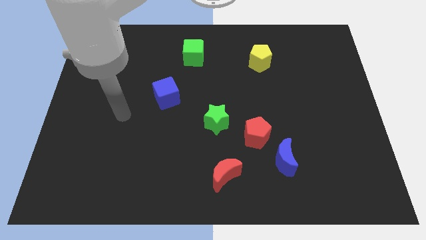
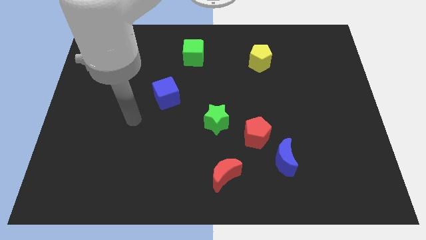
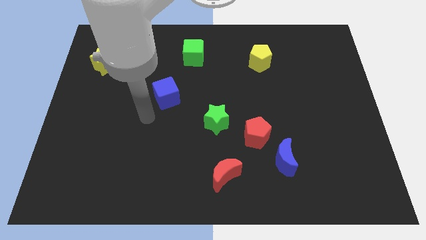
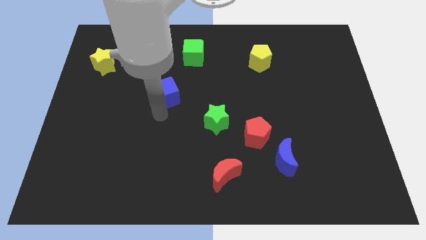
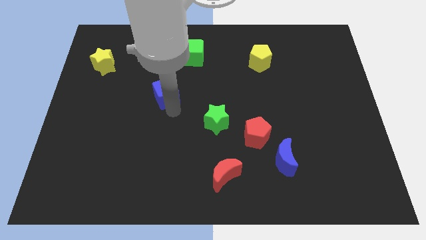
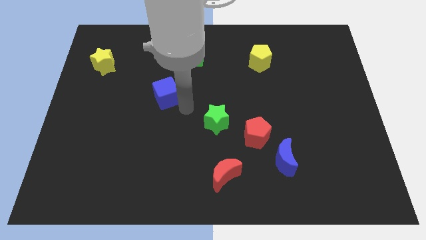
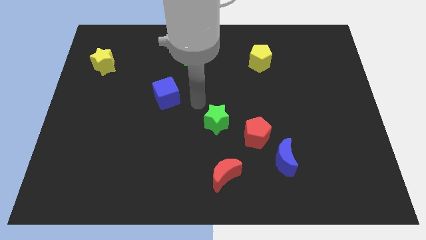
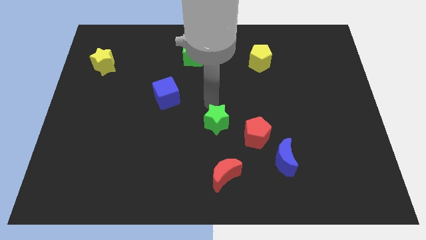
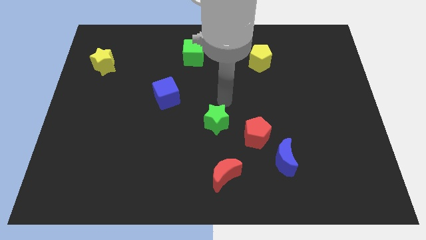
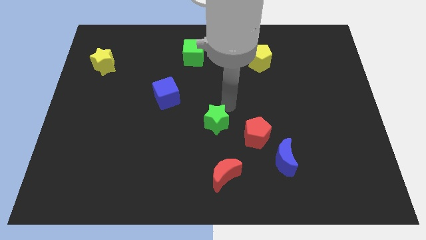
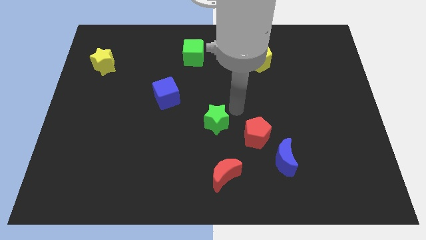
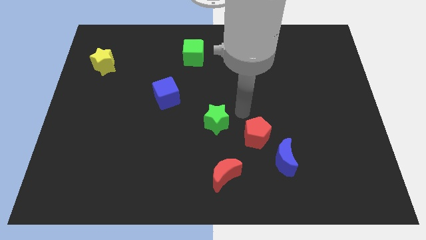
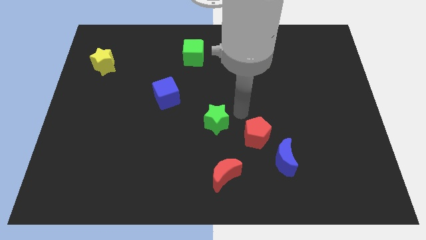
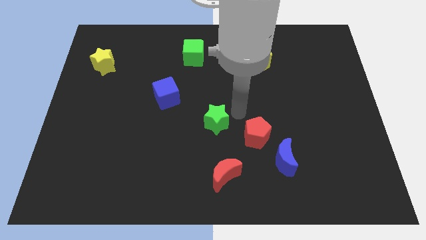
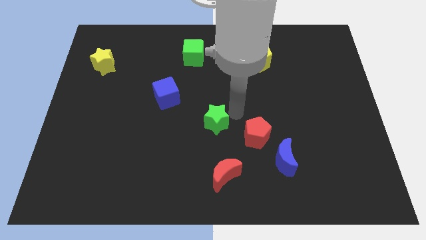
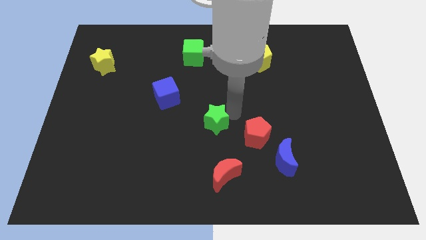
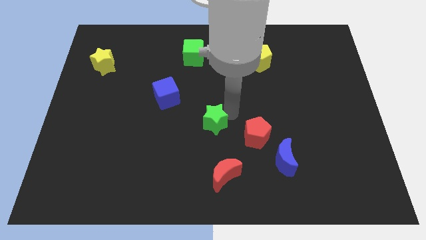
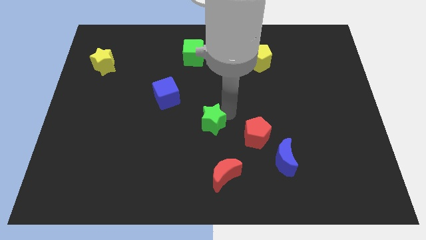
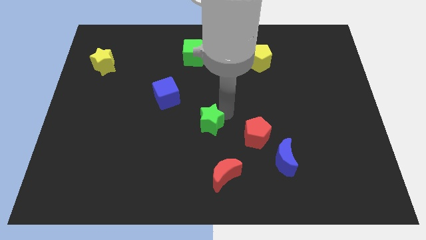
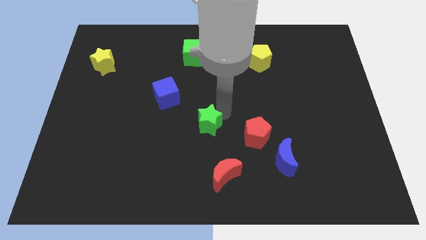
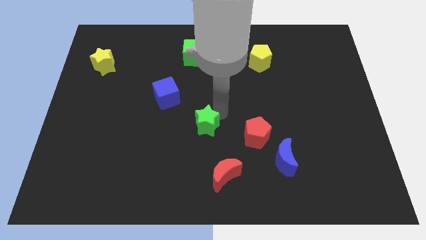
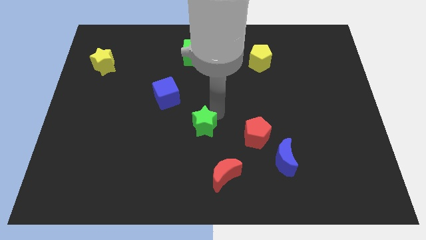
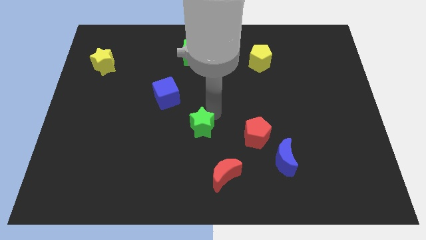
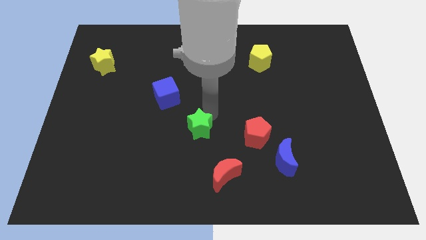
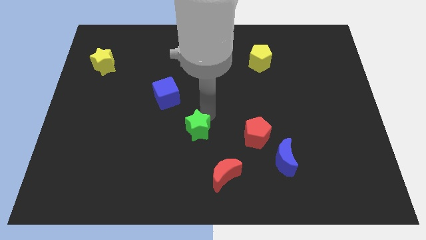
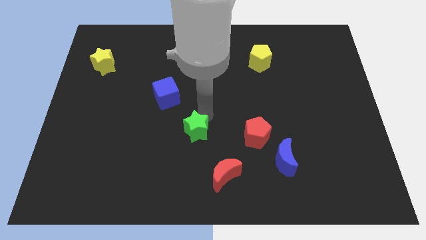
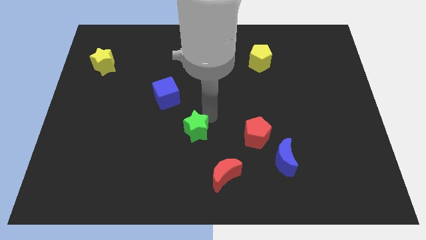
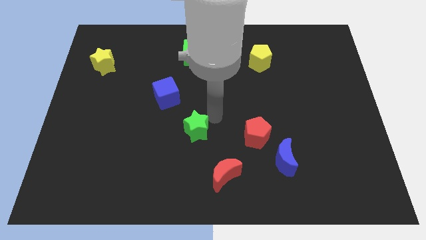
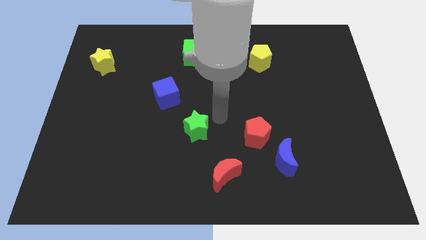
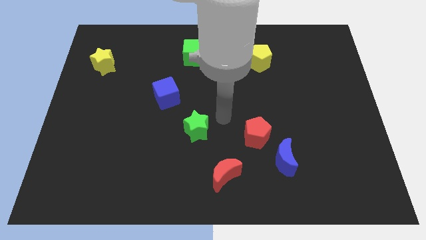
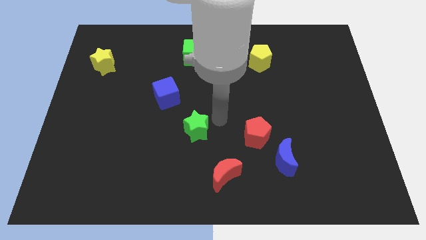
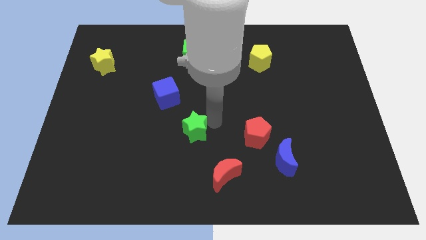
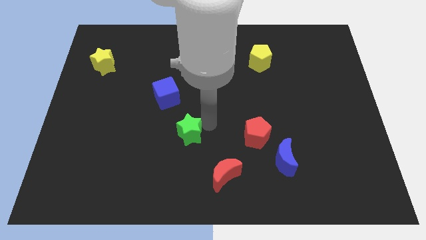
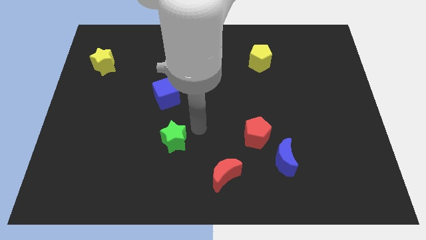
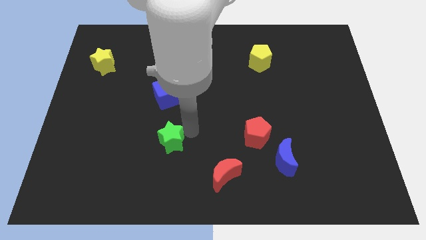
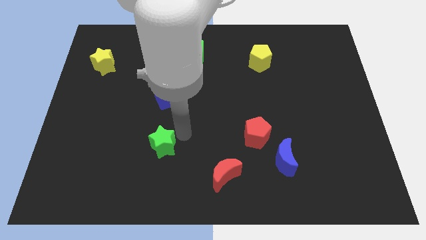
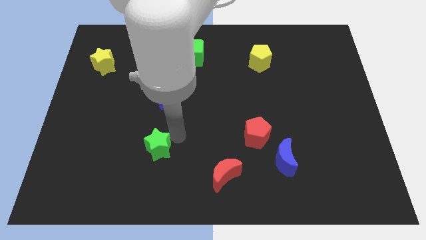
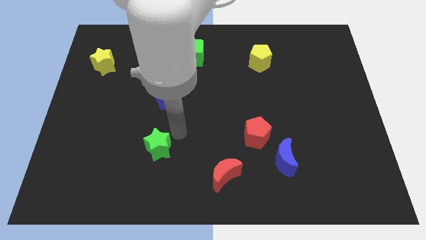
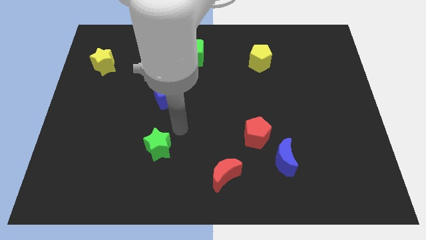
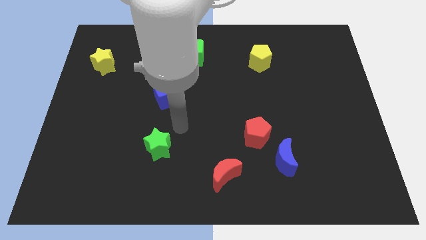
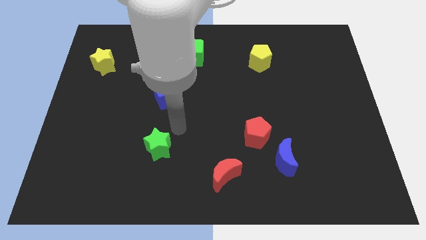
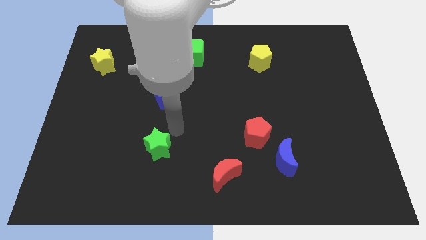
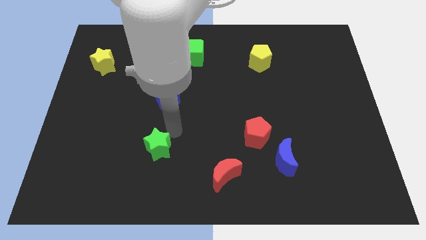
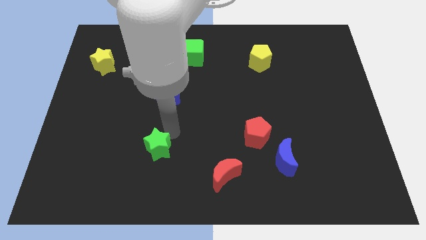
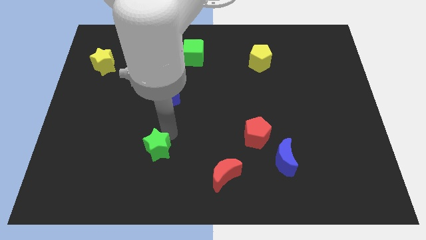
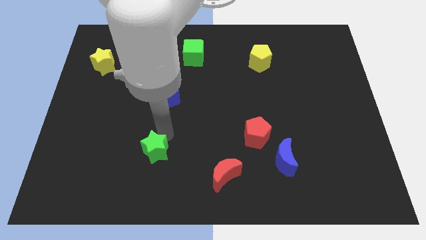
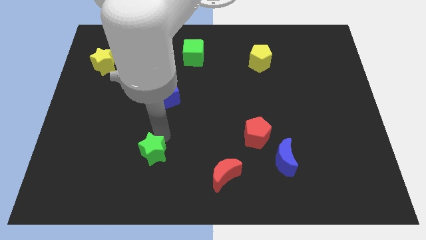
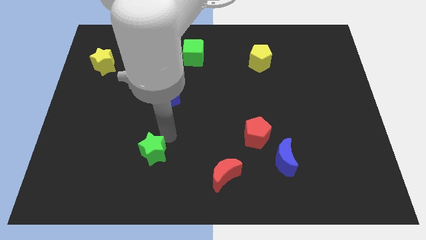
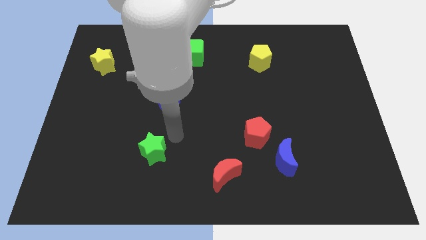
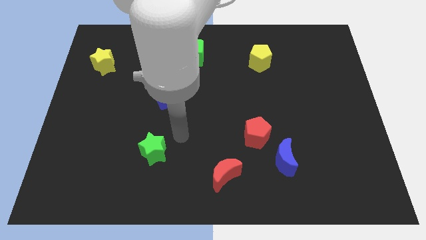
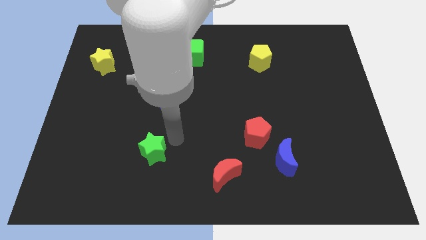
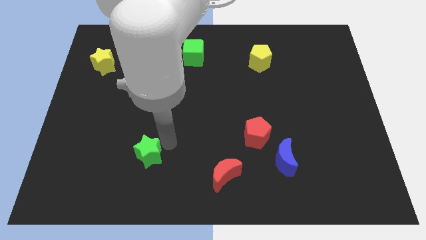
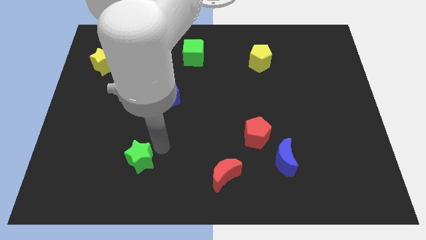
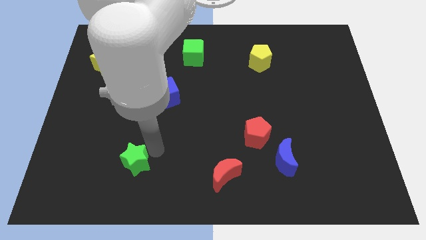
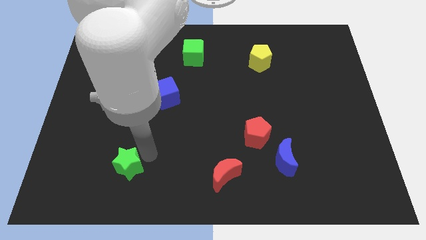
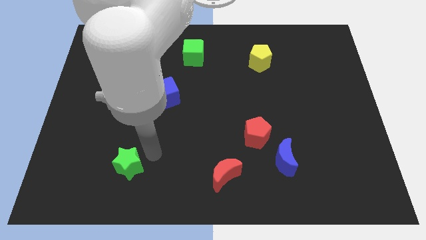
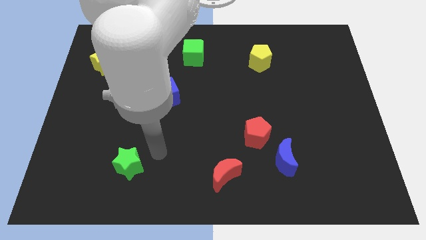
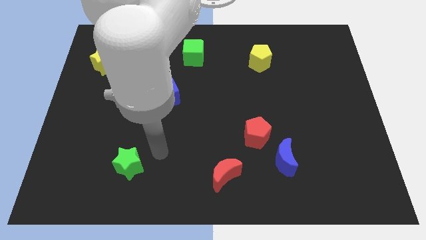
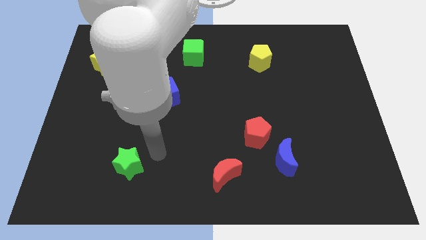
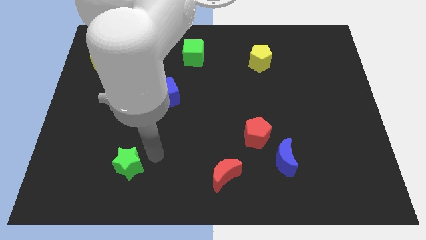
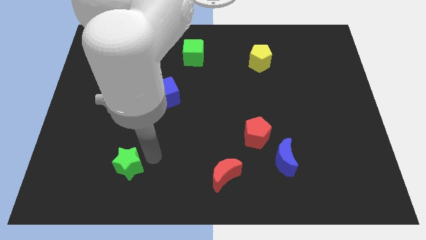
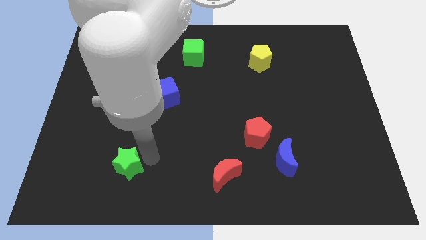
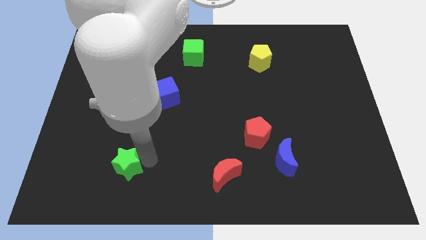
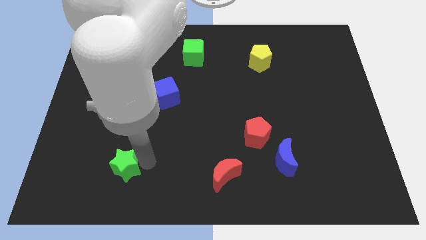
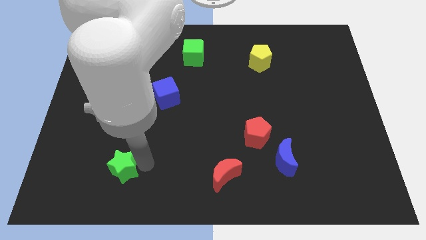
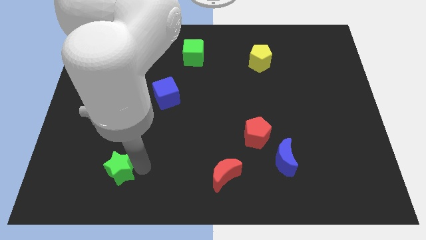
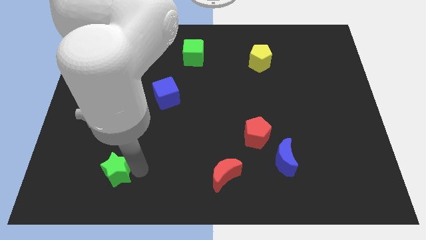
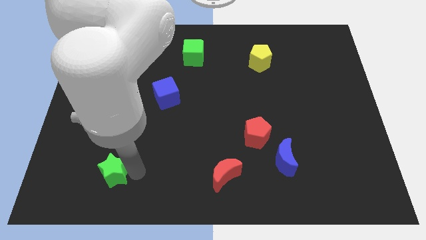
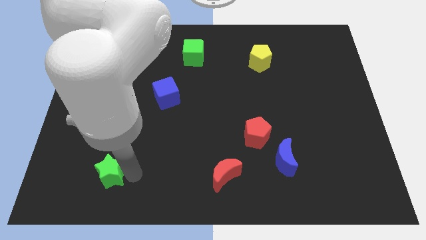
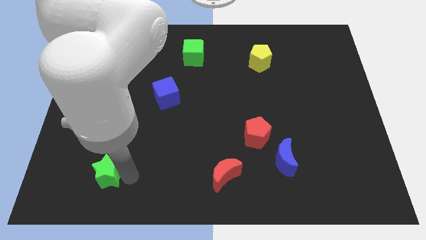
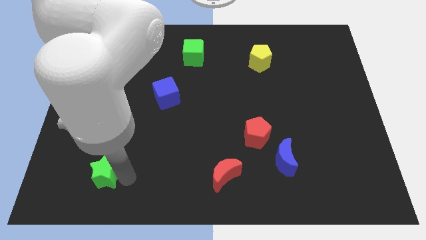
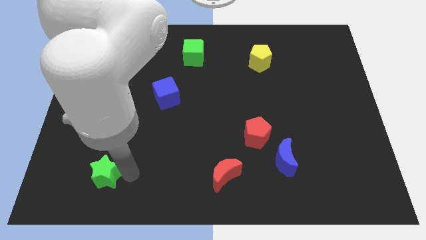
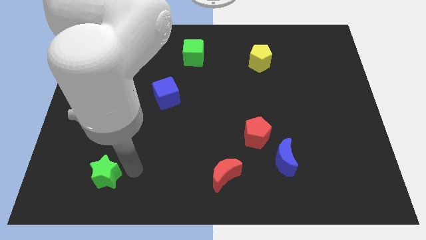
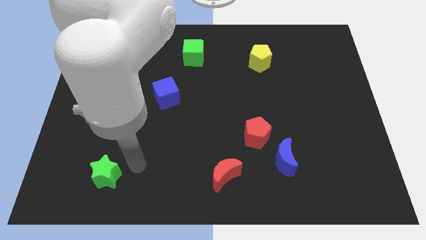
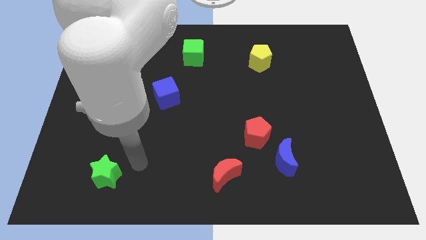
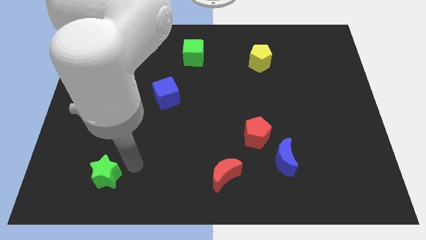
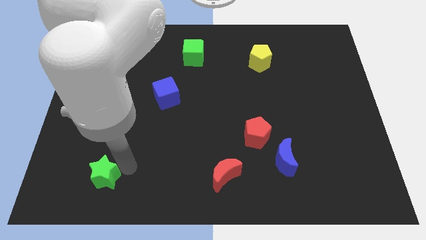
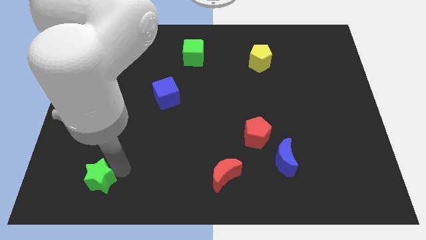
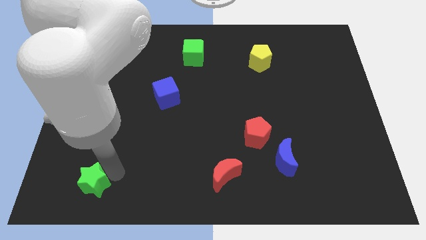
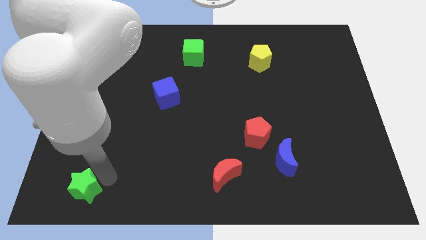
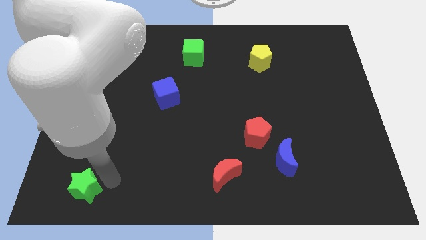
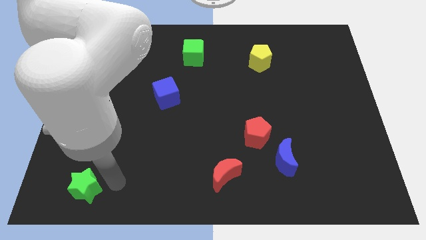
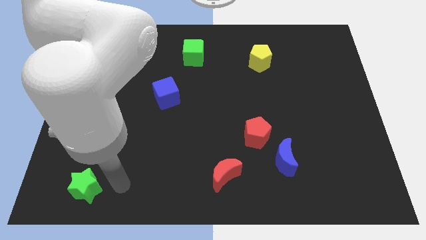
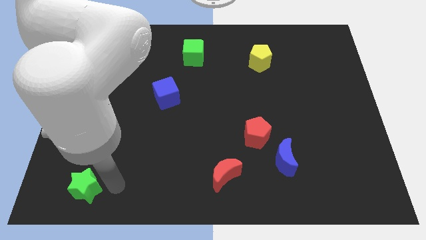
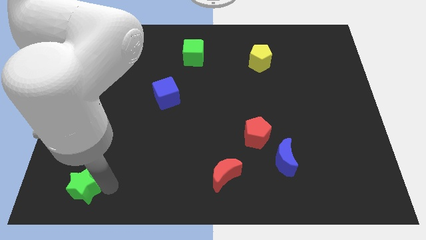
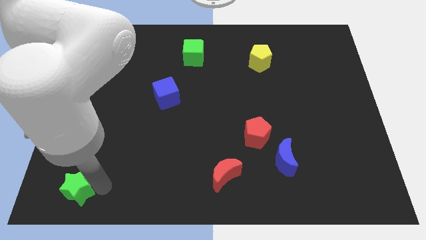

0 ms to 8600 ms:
push the green star to the bottom left corner
